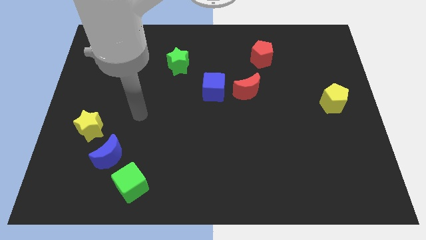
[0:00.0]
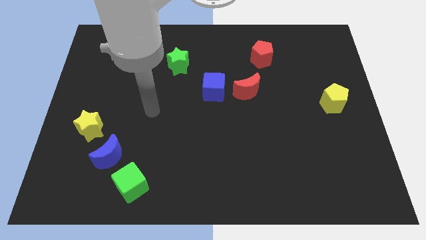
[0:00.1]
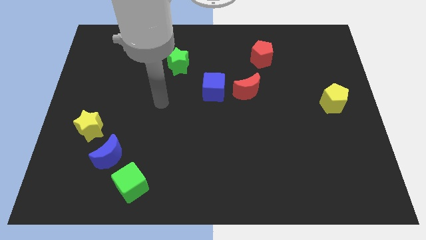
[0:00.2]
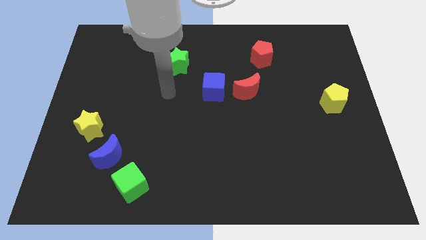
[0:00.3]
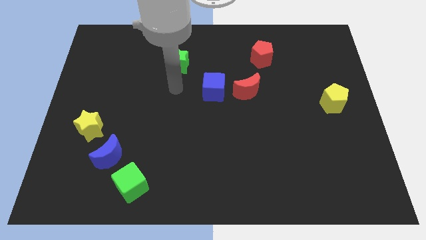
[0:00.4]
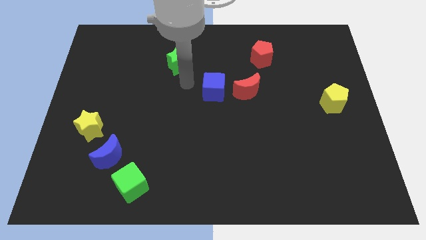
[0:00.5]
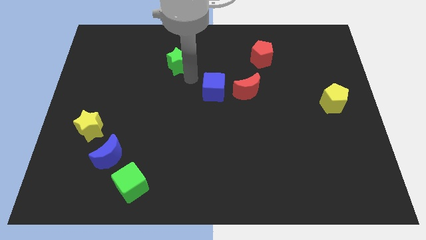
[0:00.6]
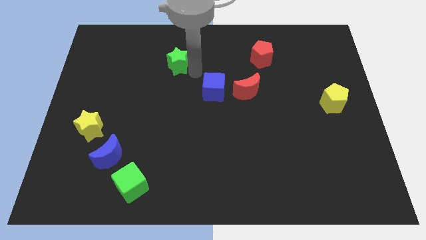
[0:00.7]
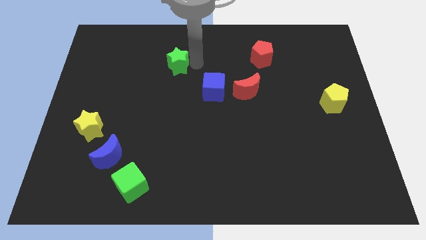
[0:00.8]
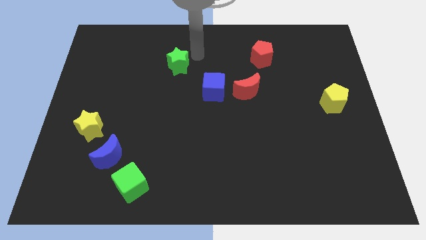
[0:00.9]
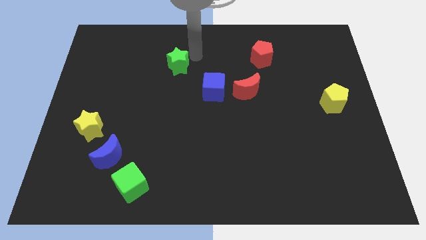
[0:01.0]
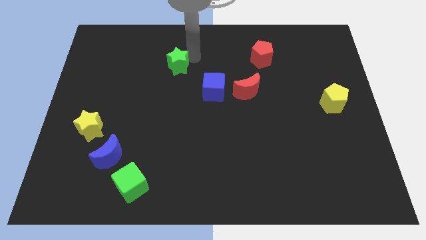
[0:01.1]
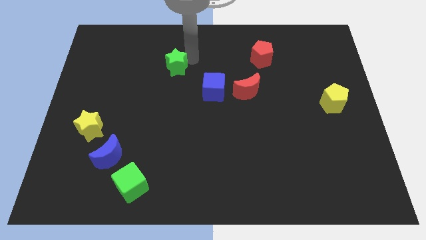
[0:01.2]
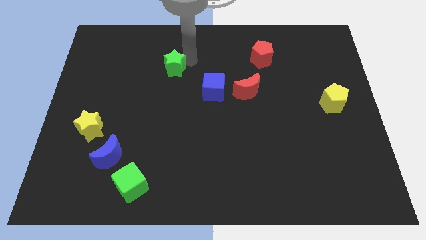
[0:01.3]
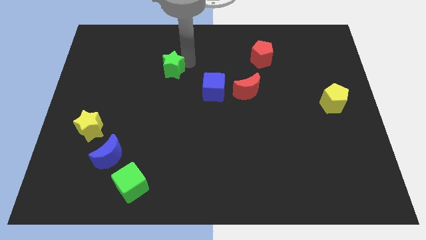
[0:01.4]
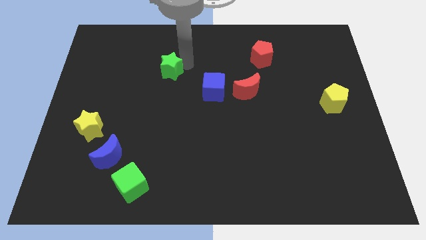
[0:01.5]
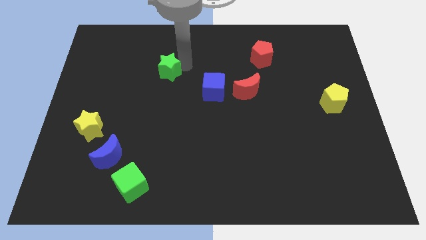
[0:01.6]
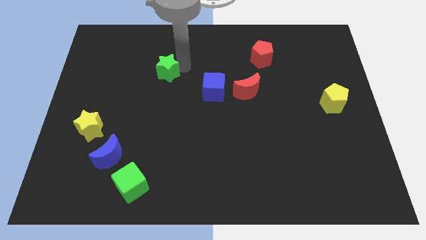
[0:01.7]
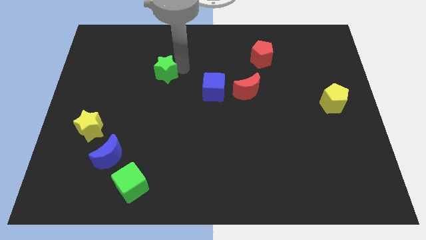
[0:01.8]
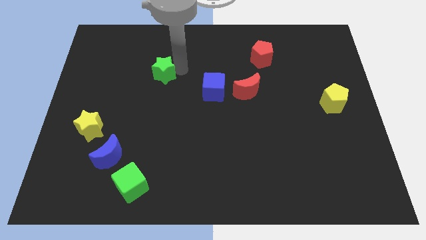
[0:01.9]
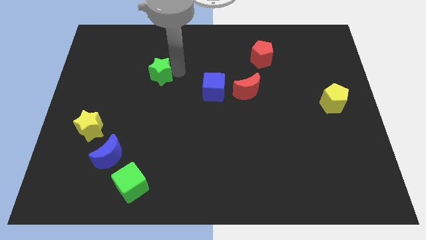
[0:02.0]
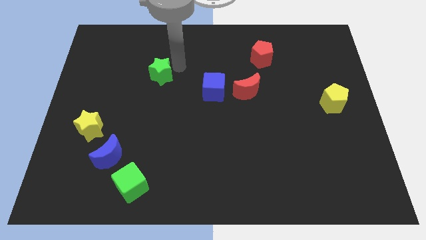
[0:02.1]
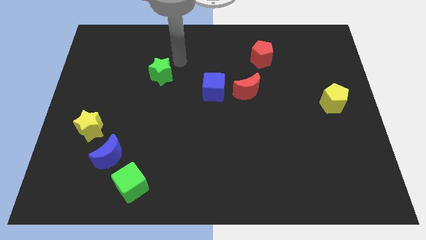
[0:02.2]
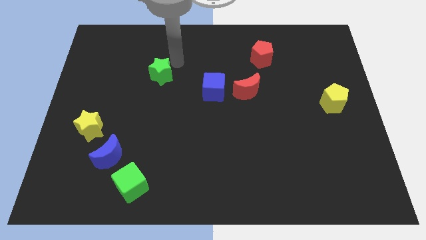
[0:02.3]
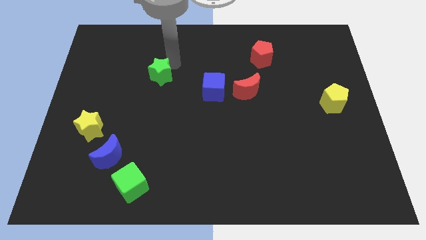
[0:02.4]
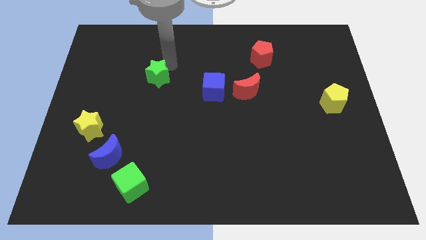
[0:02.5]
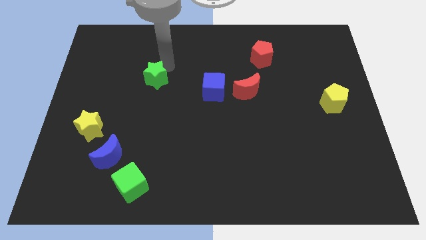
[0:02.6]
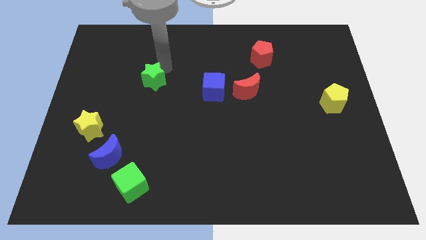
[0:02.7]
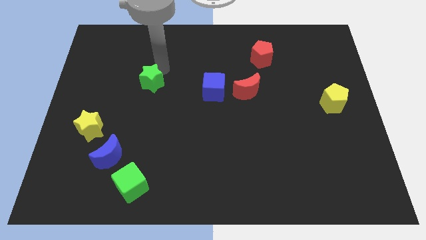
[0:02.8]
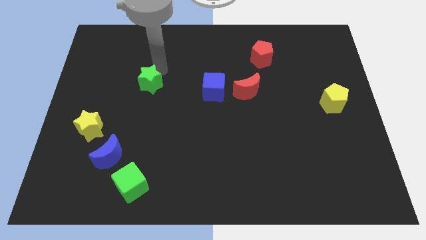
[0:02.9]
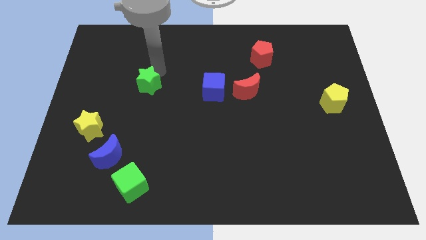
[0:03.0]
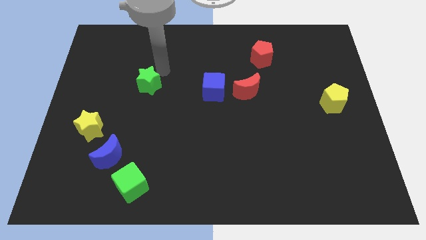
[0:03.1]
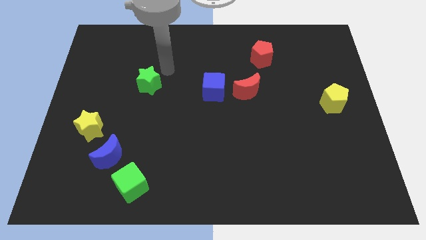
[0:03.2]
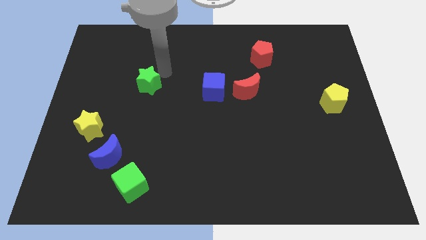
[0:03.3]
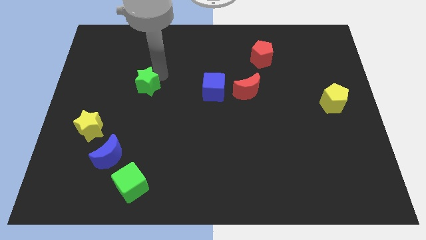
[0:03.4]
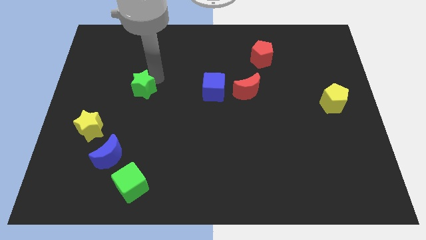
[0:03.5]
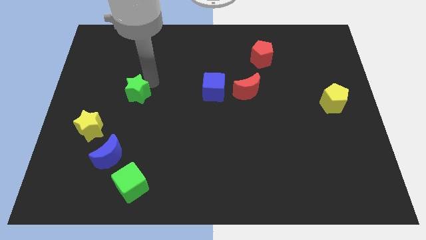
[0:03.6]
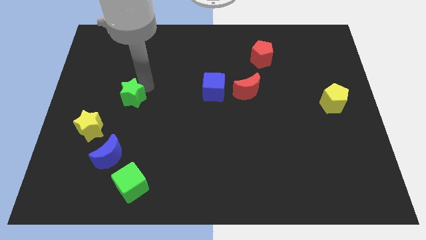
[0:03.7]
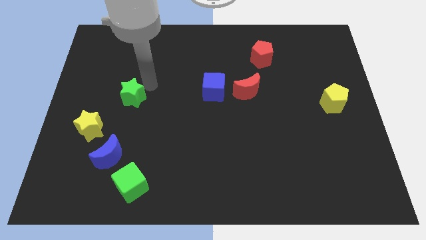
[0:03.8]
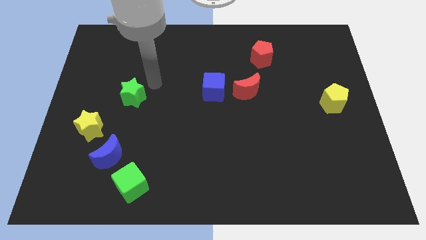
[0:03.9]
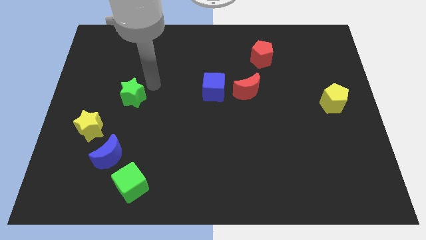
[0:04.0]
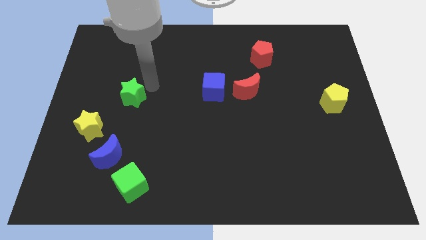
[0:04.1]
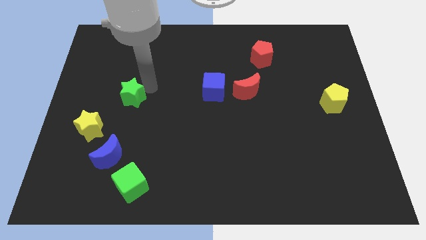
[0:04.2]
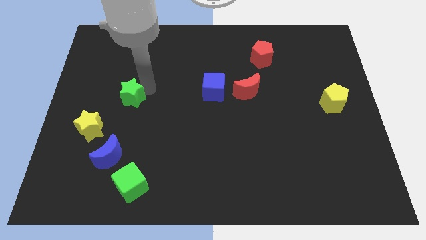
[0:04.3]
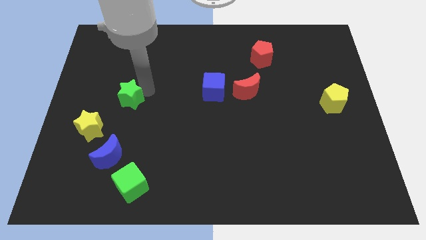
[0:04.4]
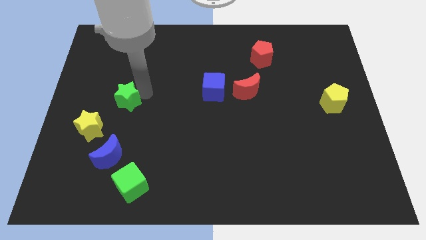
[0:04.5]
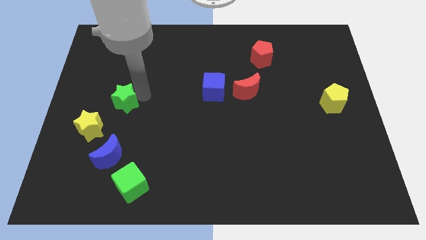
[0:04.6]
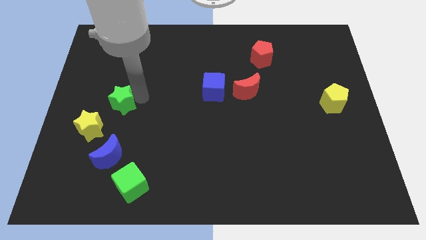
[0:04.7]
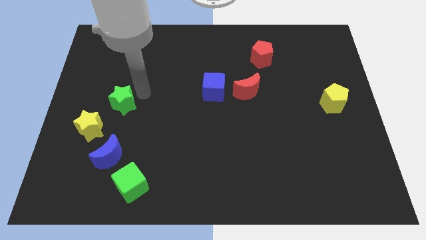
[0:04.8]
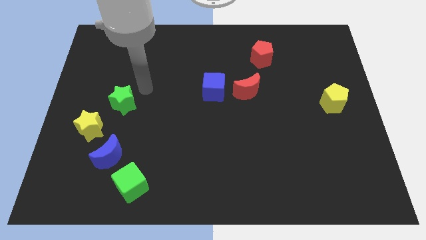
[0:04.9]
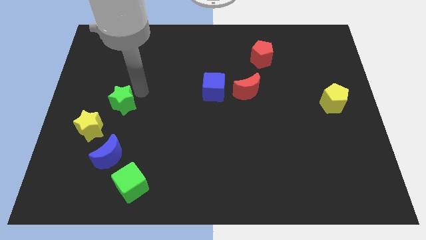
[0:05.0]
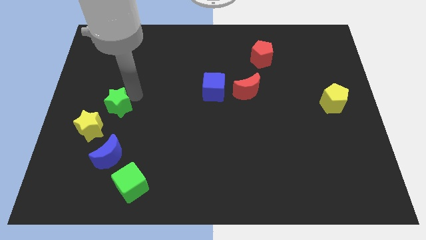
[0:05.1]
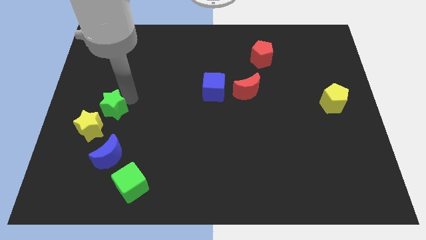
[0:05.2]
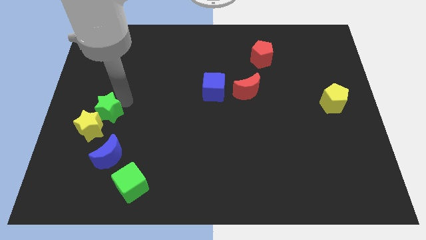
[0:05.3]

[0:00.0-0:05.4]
push the green star towards the yellow star
